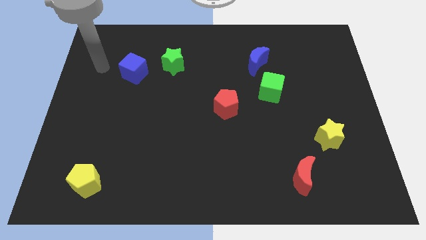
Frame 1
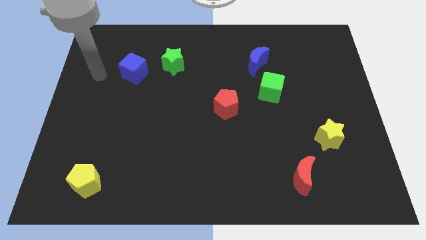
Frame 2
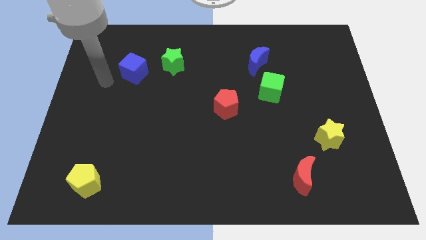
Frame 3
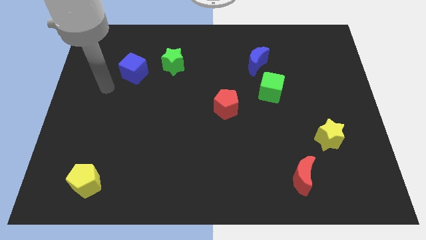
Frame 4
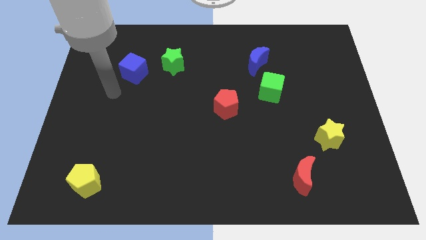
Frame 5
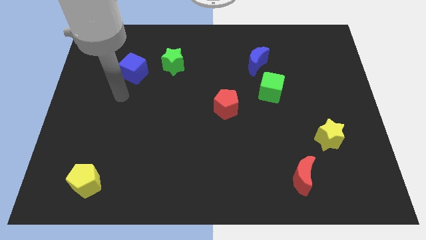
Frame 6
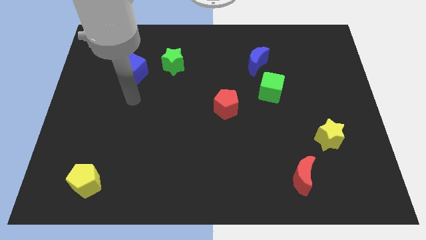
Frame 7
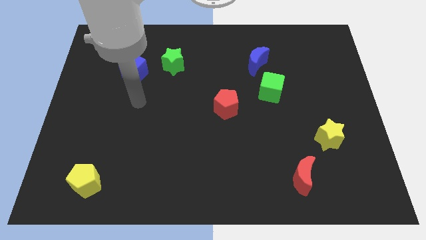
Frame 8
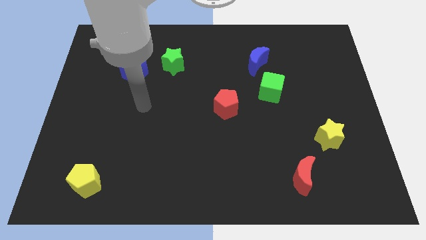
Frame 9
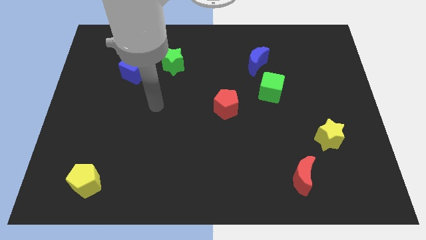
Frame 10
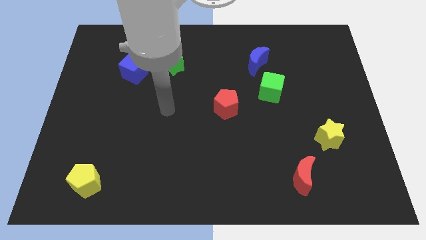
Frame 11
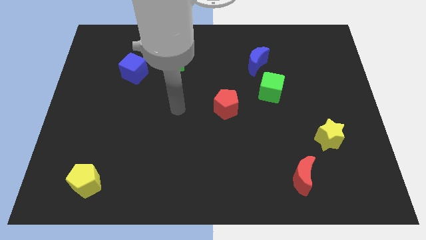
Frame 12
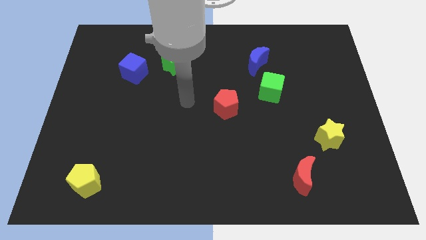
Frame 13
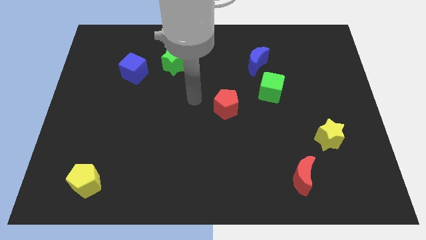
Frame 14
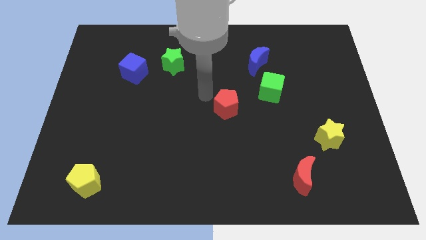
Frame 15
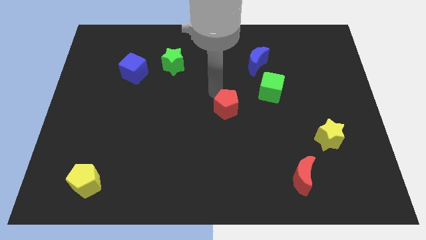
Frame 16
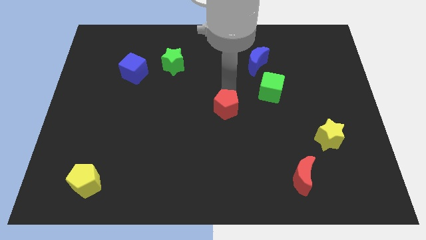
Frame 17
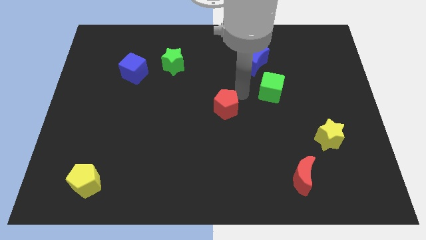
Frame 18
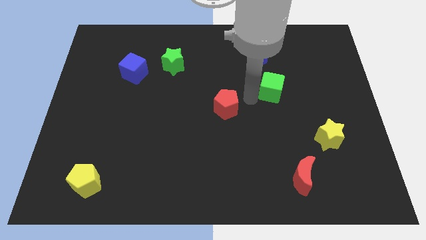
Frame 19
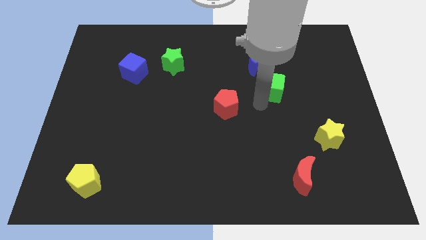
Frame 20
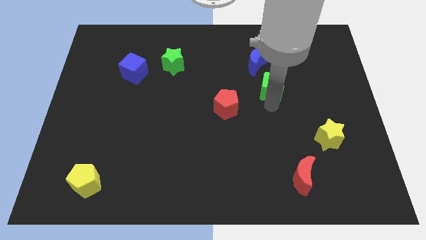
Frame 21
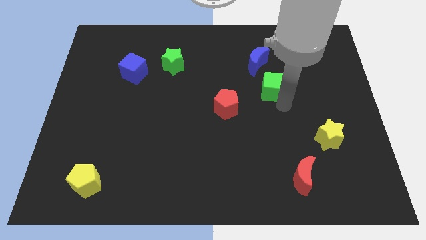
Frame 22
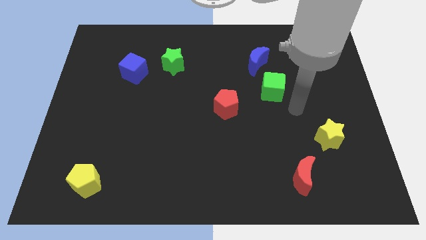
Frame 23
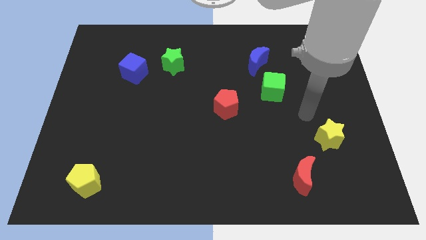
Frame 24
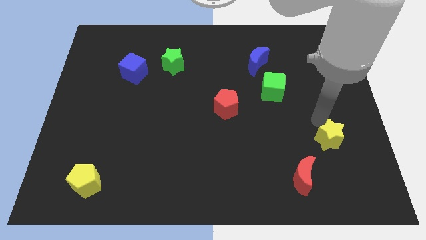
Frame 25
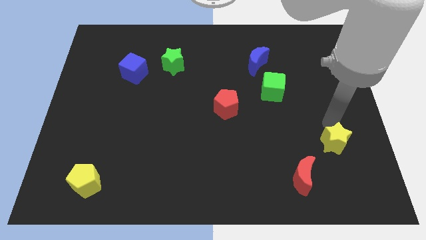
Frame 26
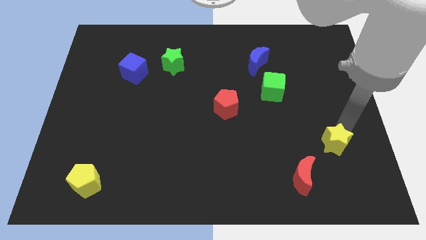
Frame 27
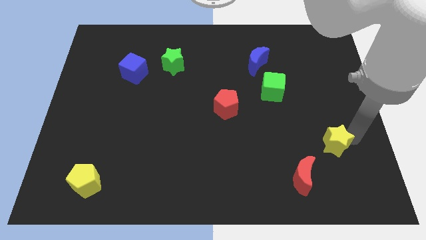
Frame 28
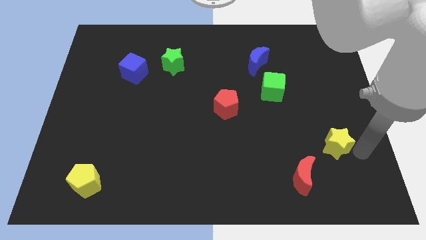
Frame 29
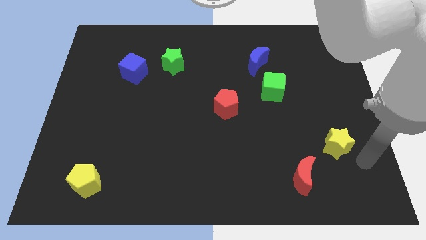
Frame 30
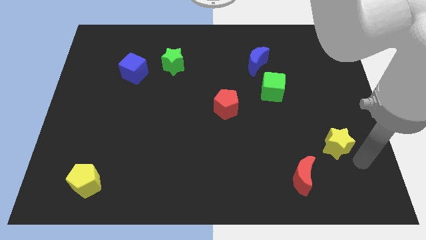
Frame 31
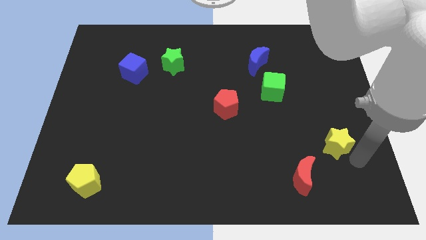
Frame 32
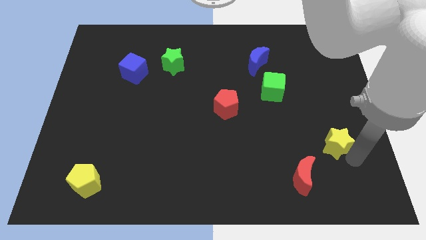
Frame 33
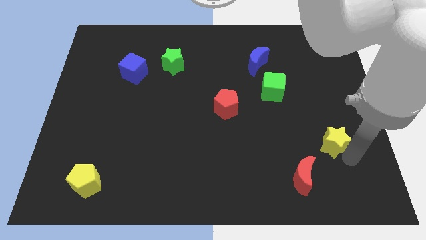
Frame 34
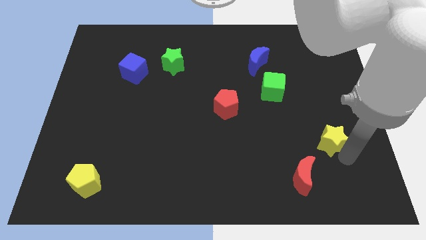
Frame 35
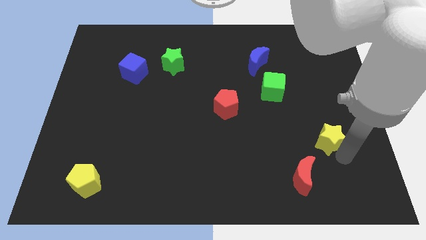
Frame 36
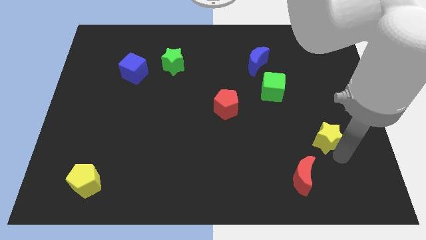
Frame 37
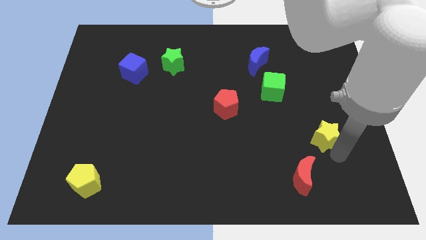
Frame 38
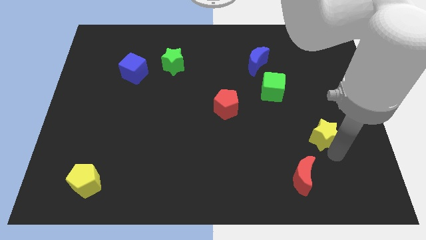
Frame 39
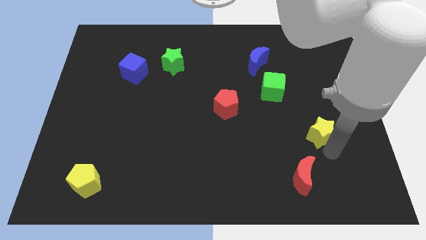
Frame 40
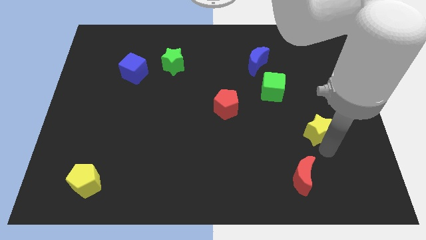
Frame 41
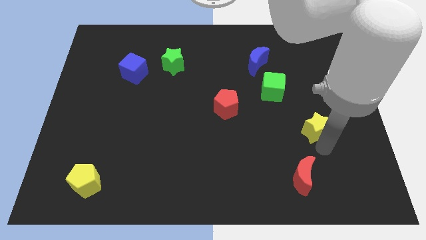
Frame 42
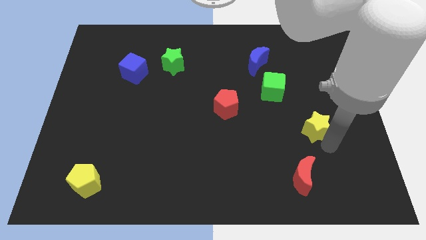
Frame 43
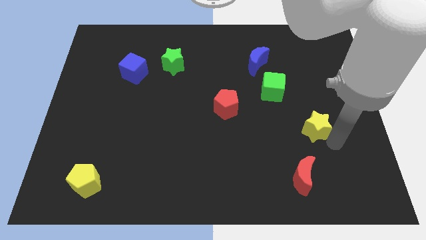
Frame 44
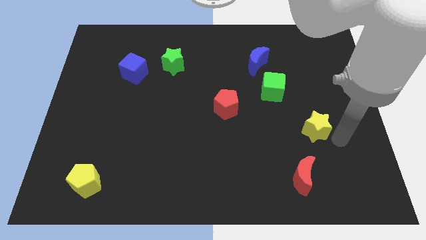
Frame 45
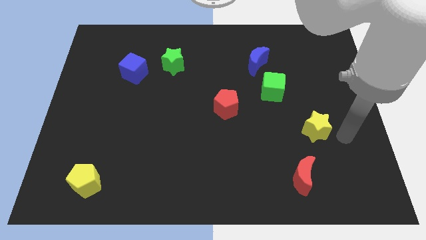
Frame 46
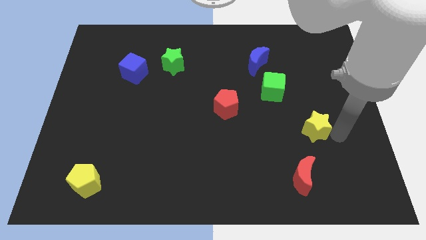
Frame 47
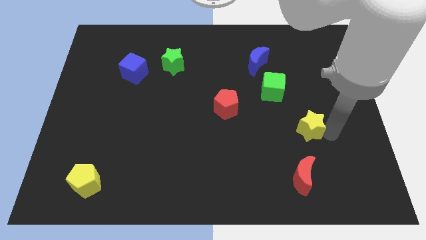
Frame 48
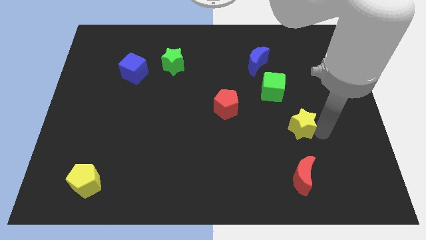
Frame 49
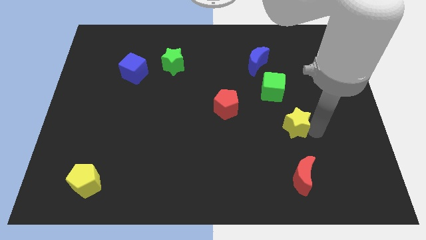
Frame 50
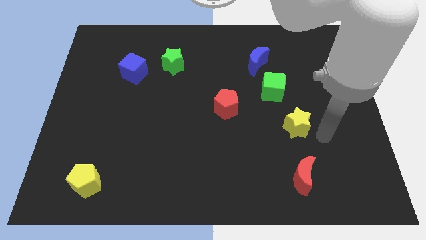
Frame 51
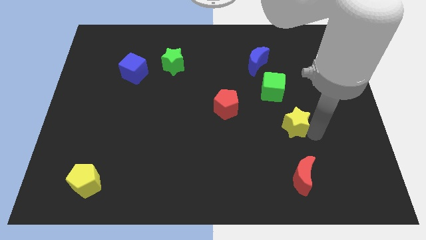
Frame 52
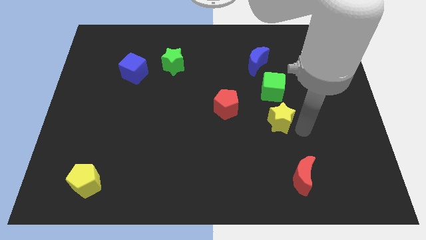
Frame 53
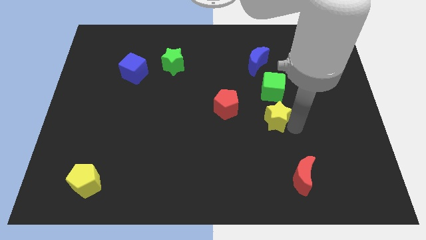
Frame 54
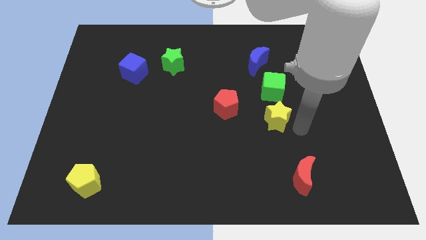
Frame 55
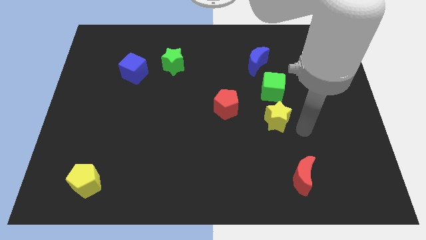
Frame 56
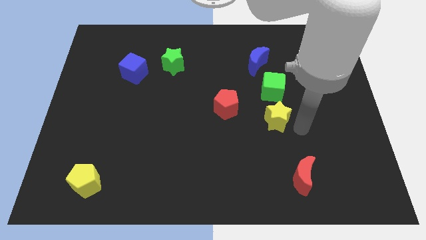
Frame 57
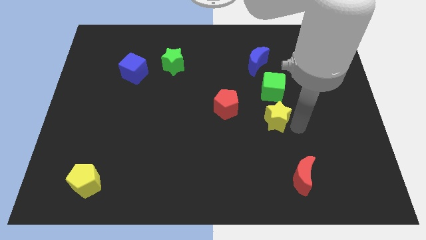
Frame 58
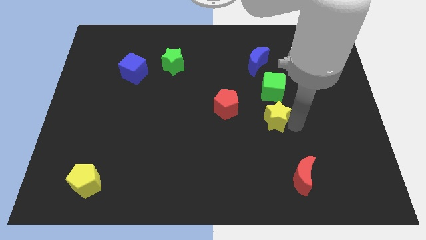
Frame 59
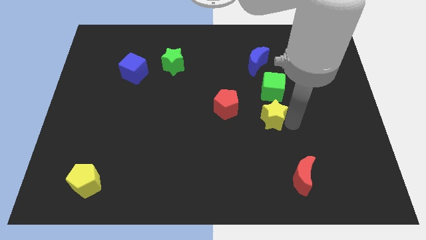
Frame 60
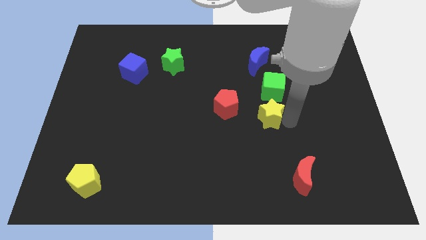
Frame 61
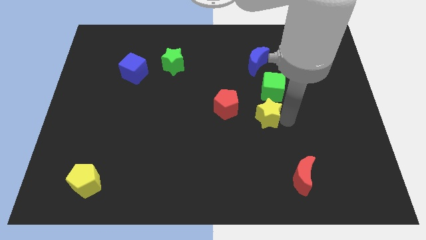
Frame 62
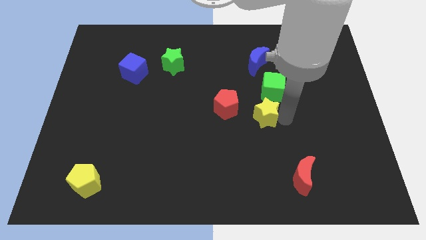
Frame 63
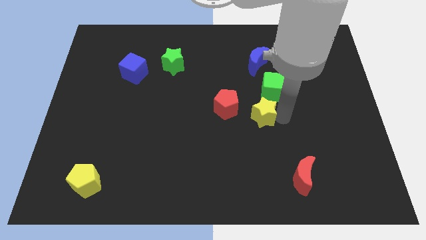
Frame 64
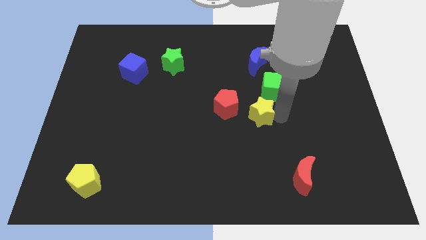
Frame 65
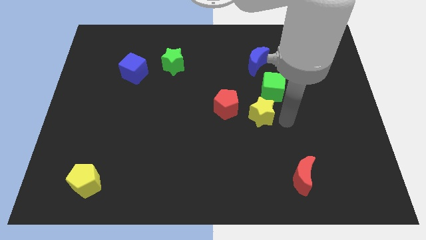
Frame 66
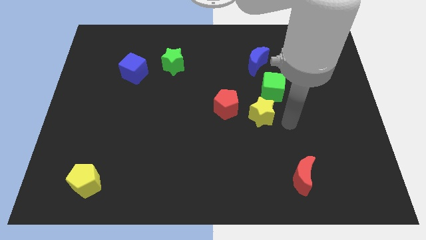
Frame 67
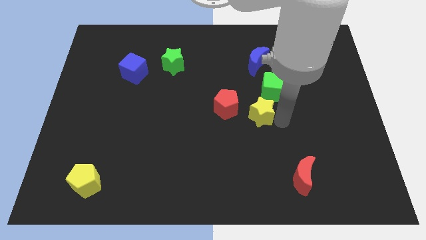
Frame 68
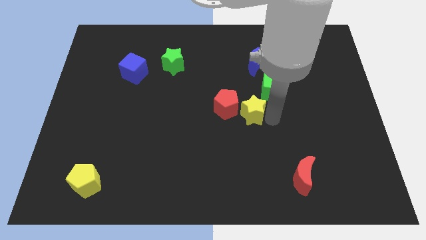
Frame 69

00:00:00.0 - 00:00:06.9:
move the yellow star next to the red pentagon

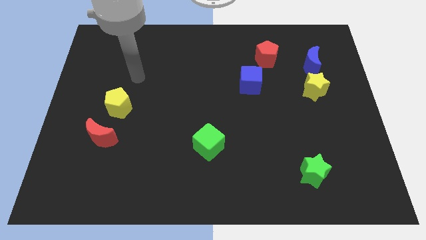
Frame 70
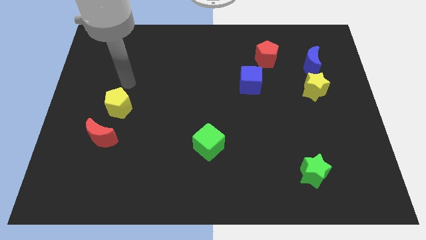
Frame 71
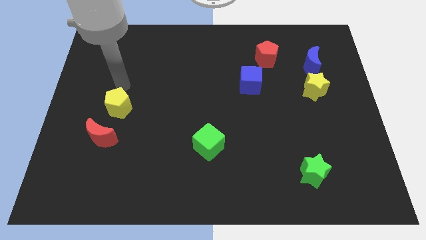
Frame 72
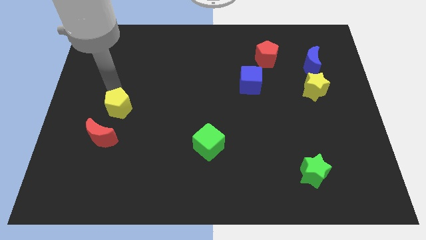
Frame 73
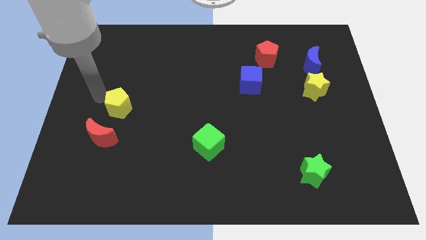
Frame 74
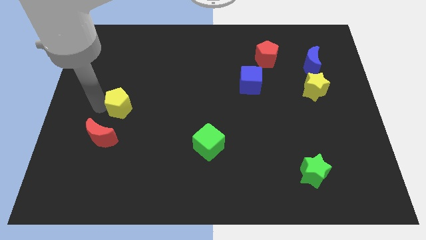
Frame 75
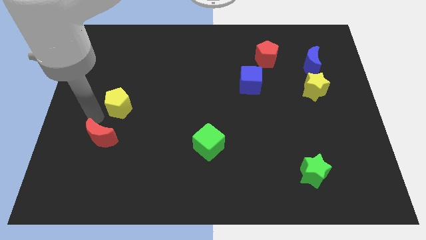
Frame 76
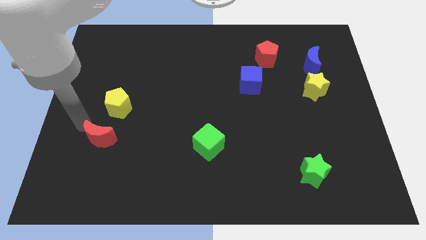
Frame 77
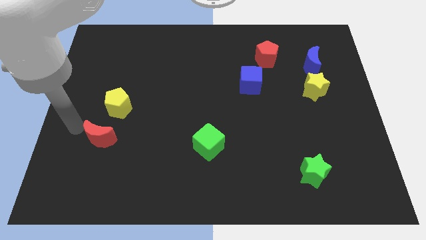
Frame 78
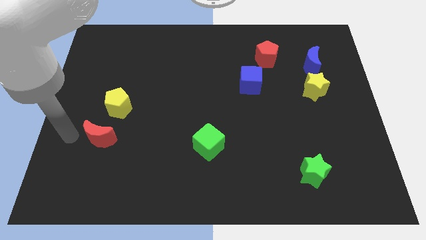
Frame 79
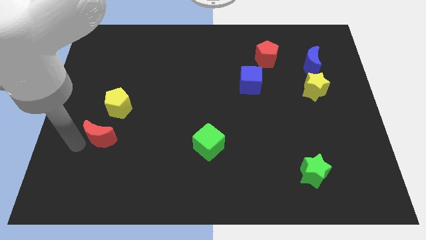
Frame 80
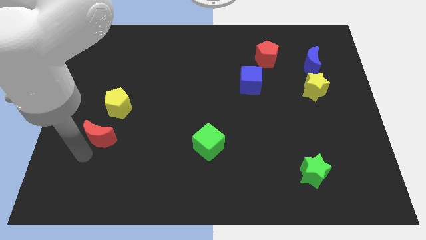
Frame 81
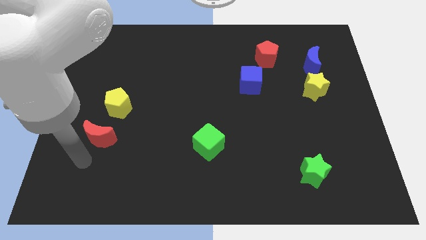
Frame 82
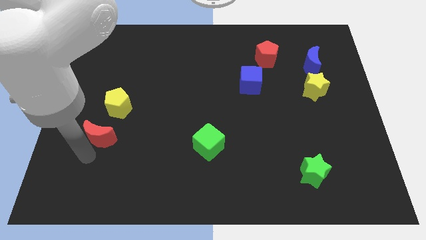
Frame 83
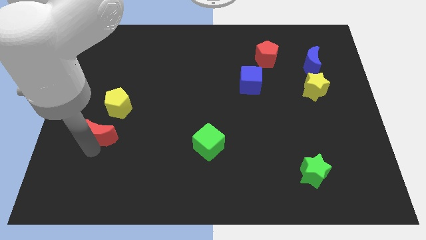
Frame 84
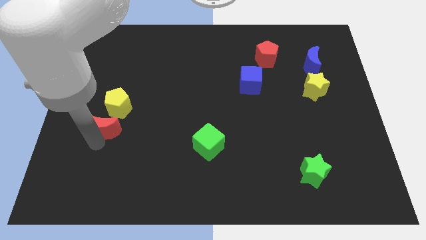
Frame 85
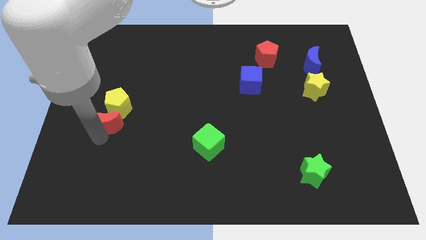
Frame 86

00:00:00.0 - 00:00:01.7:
push the red moon to the yellow pentagon
